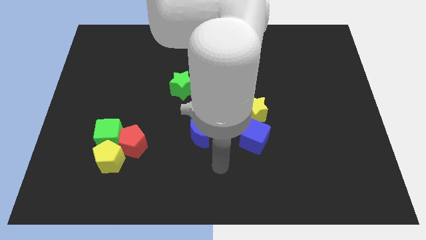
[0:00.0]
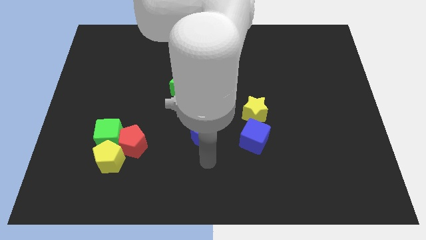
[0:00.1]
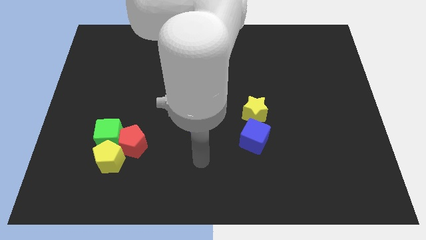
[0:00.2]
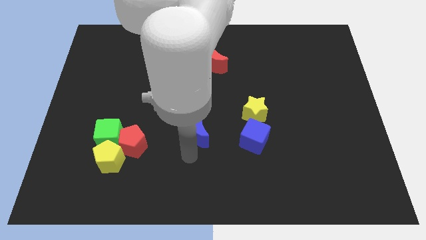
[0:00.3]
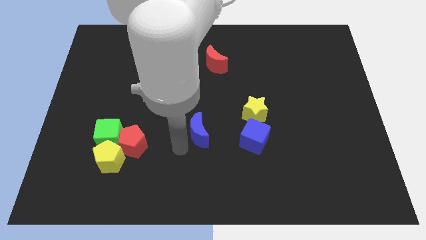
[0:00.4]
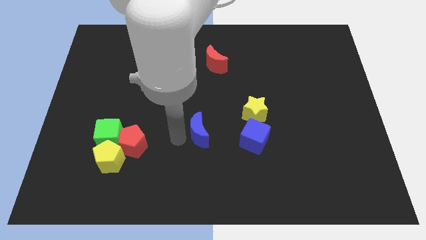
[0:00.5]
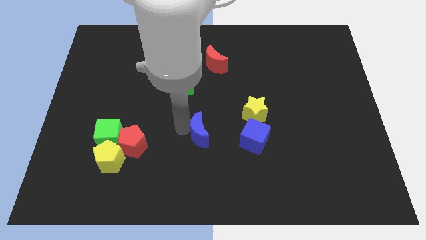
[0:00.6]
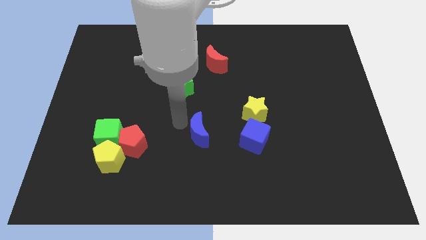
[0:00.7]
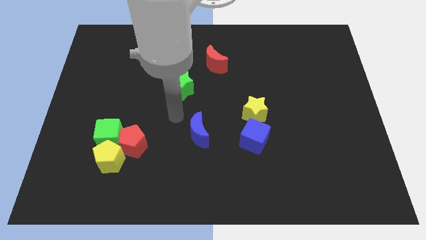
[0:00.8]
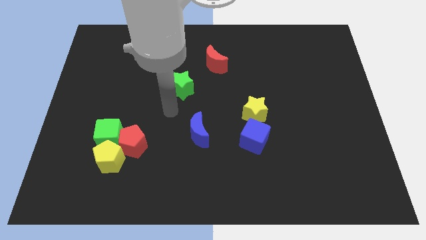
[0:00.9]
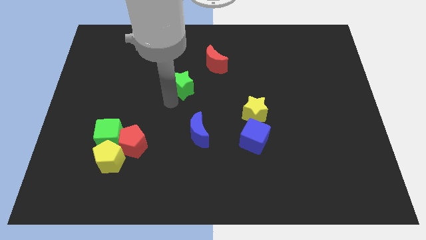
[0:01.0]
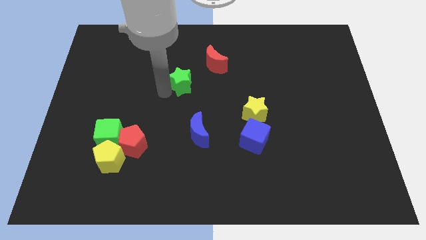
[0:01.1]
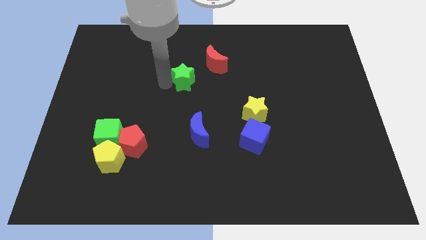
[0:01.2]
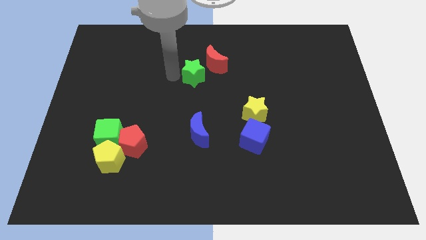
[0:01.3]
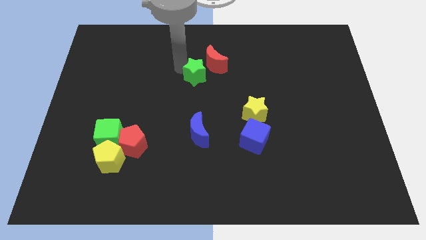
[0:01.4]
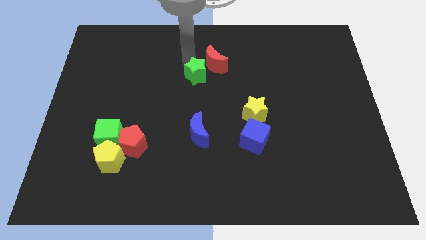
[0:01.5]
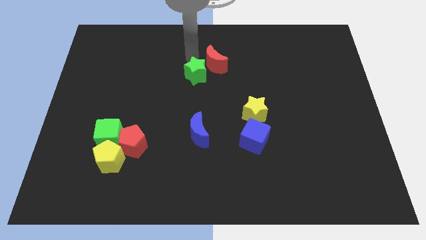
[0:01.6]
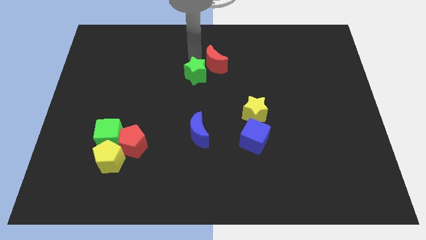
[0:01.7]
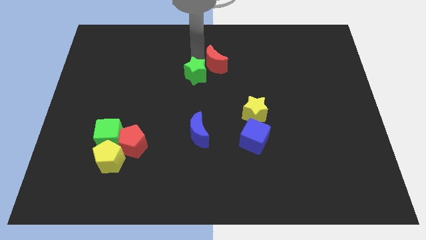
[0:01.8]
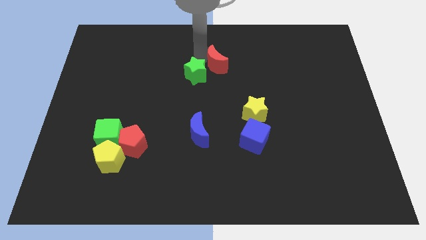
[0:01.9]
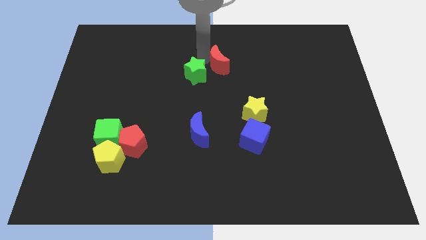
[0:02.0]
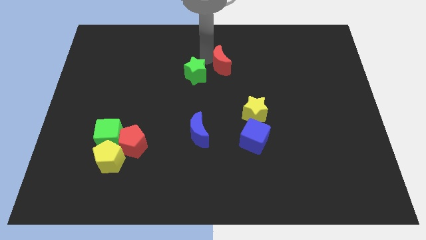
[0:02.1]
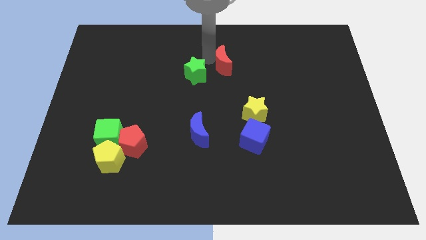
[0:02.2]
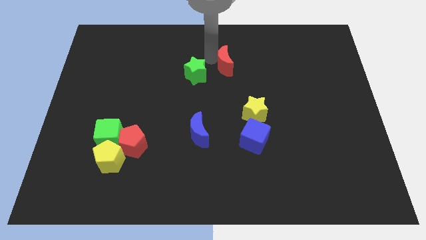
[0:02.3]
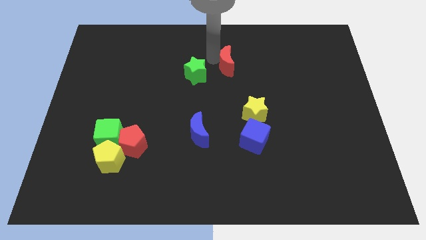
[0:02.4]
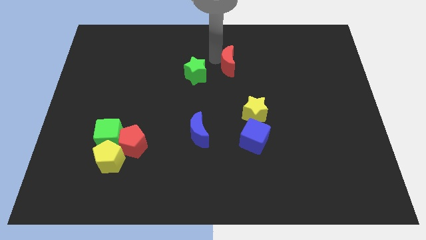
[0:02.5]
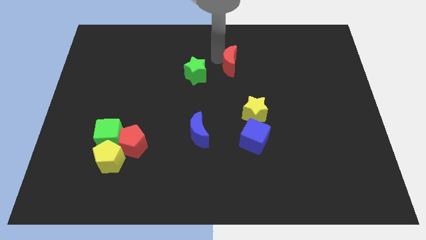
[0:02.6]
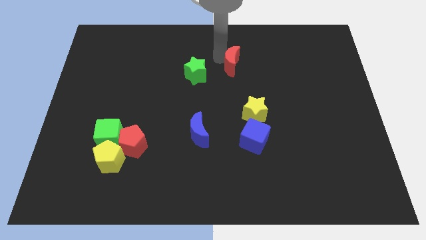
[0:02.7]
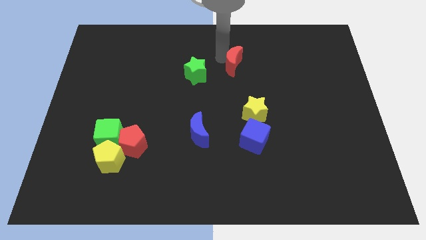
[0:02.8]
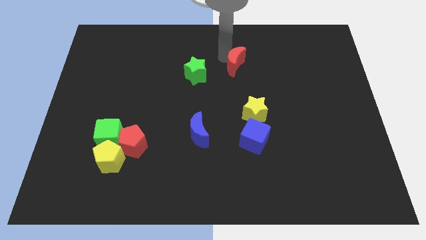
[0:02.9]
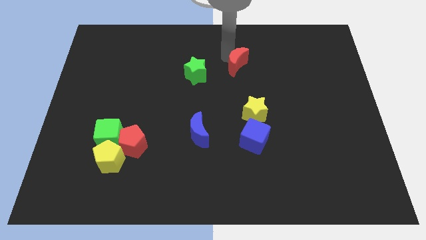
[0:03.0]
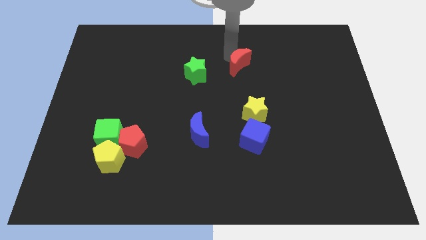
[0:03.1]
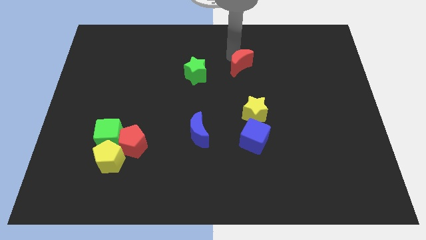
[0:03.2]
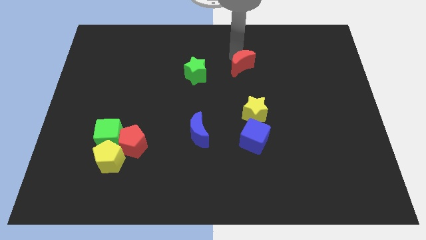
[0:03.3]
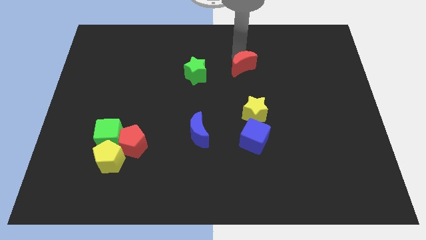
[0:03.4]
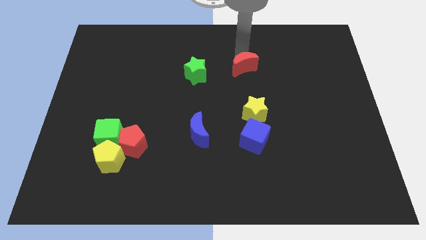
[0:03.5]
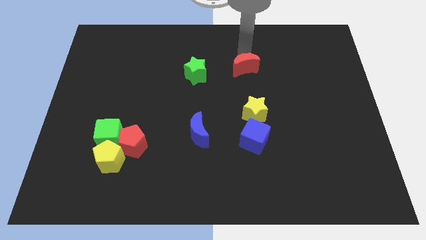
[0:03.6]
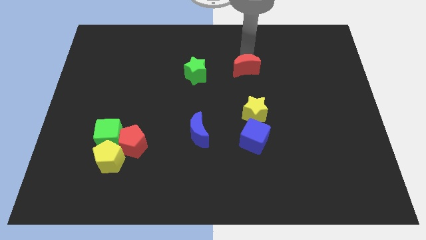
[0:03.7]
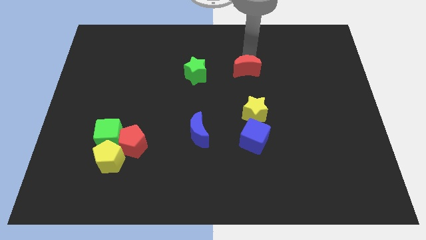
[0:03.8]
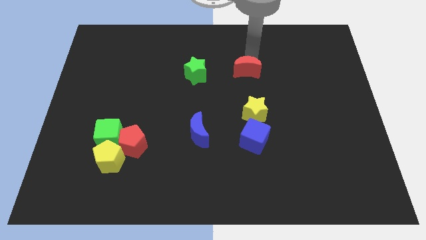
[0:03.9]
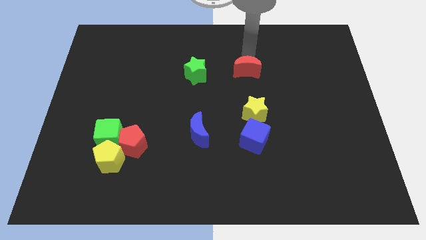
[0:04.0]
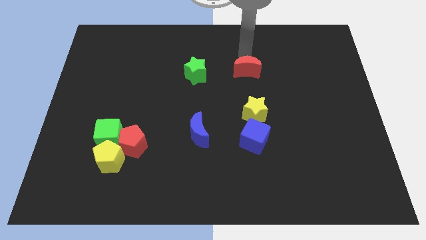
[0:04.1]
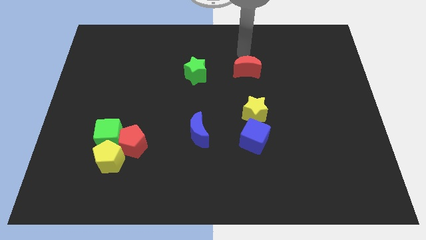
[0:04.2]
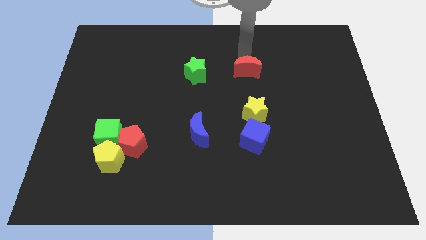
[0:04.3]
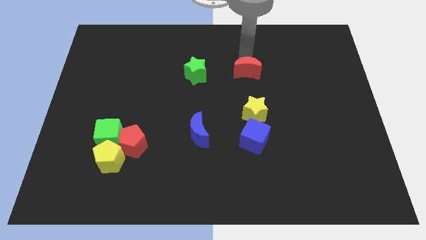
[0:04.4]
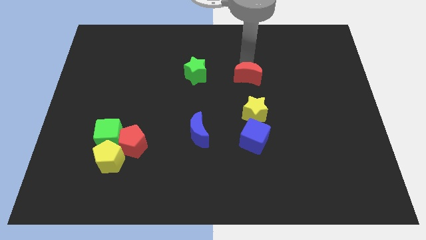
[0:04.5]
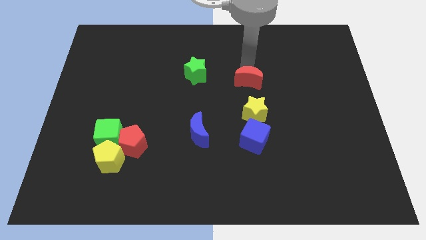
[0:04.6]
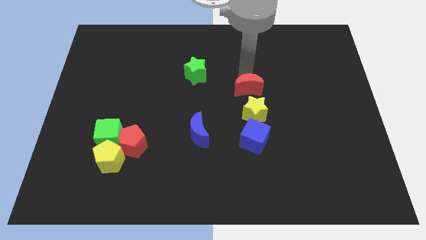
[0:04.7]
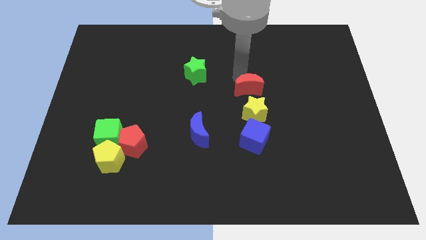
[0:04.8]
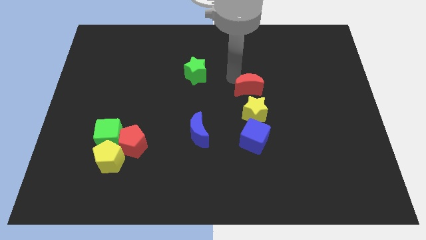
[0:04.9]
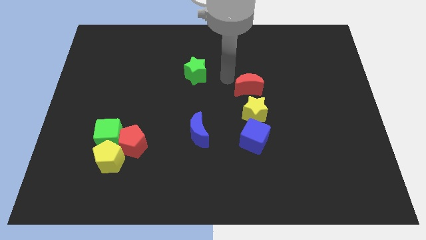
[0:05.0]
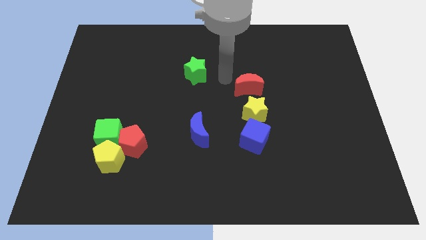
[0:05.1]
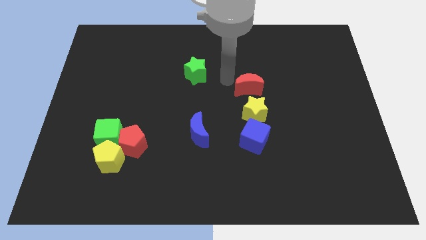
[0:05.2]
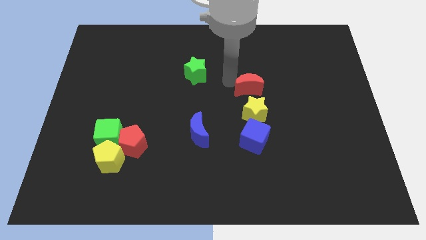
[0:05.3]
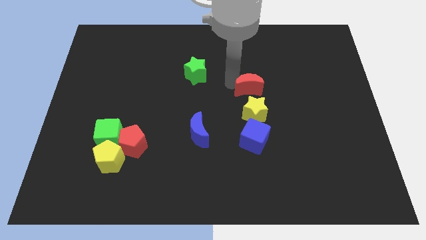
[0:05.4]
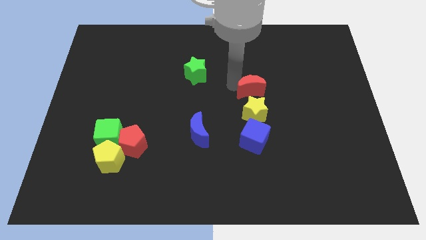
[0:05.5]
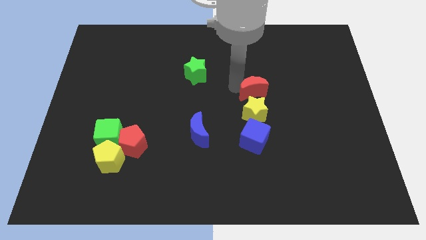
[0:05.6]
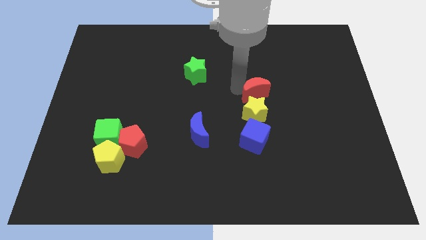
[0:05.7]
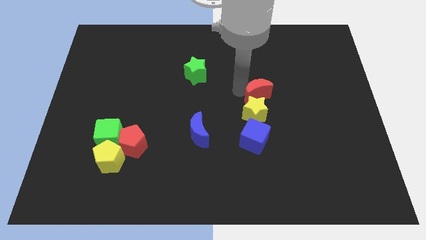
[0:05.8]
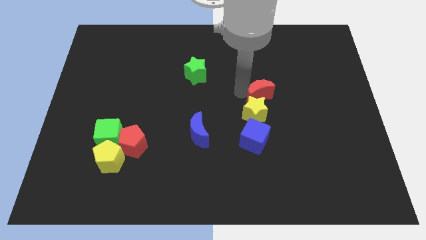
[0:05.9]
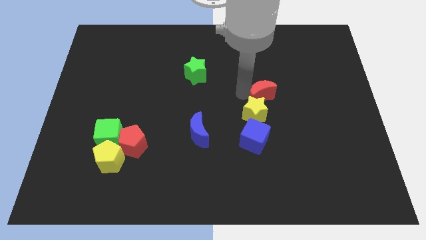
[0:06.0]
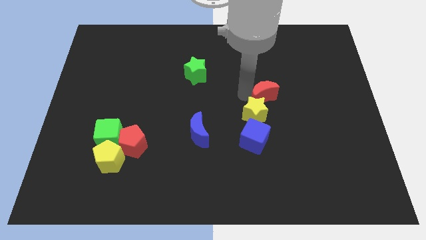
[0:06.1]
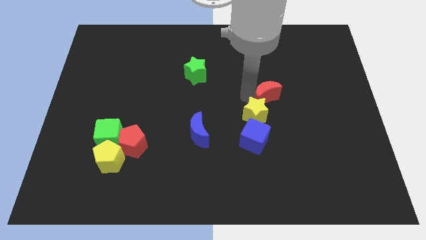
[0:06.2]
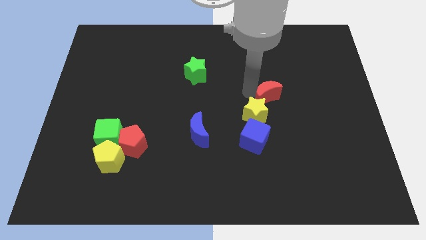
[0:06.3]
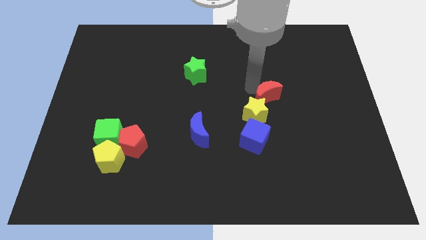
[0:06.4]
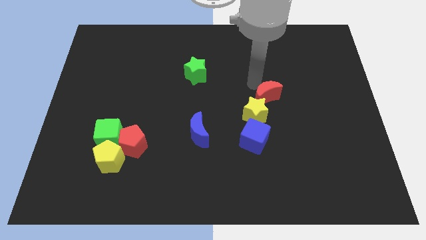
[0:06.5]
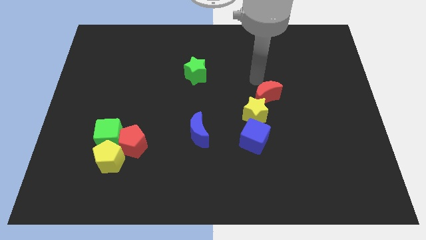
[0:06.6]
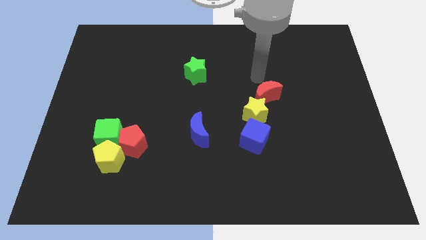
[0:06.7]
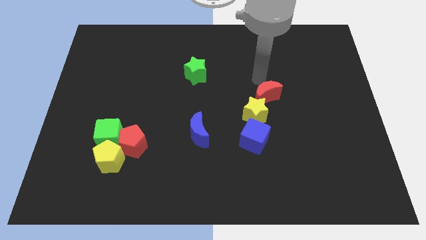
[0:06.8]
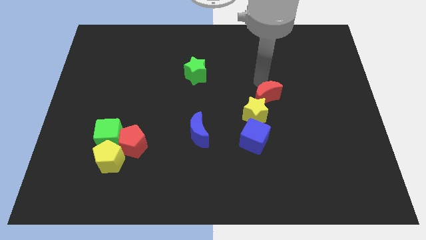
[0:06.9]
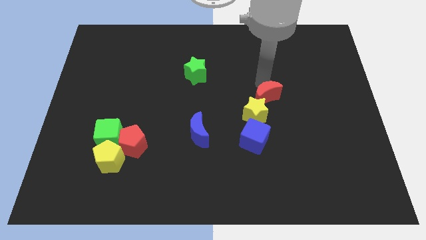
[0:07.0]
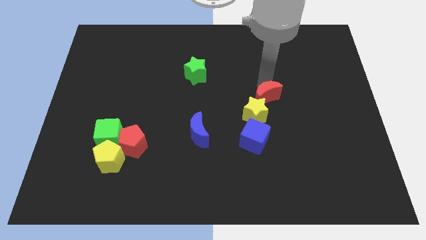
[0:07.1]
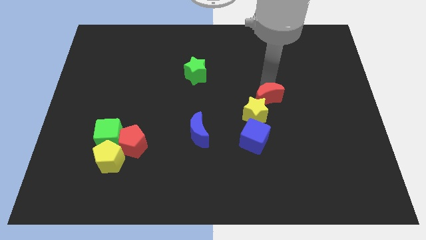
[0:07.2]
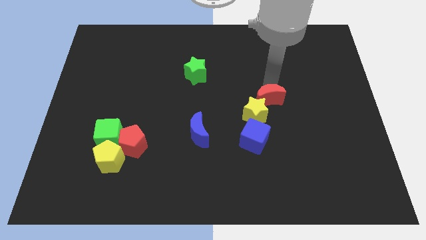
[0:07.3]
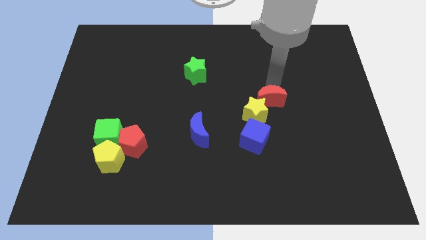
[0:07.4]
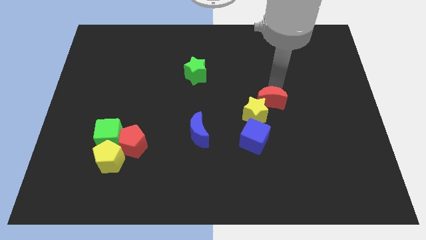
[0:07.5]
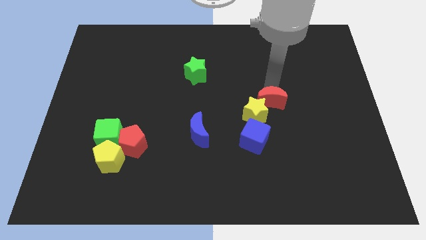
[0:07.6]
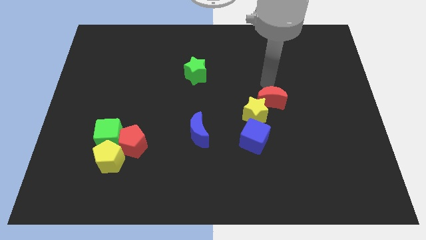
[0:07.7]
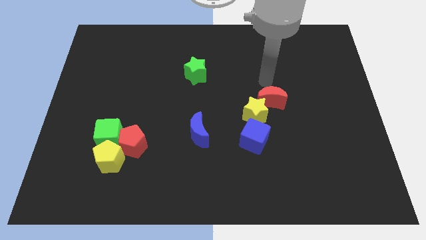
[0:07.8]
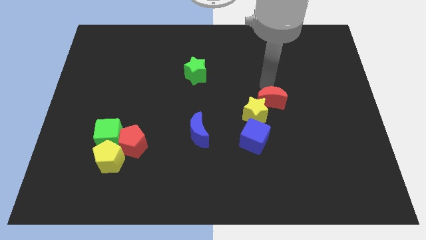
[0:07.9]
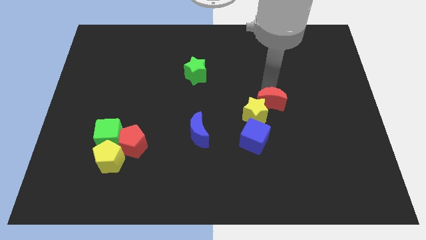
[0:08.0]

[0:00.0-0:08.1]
slide the red moon to the top right of the blue cube
